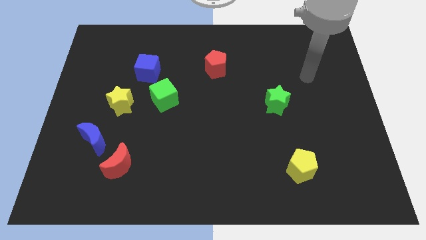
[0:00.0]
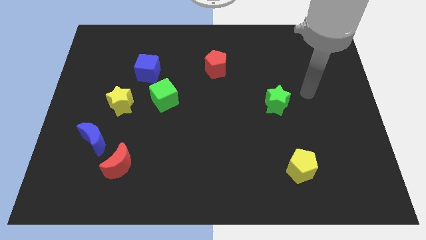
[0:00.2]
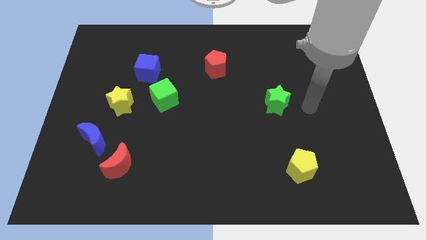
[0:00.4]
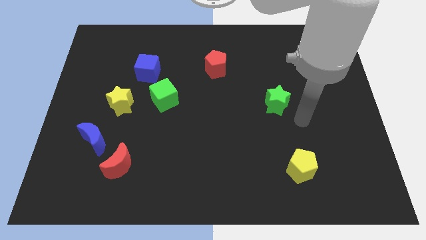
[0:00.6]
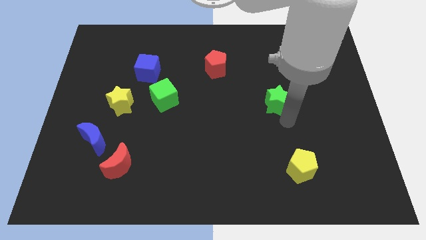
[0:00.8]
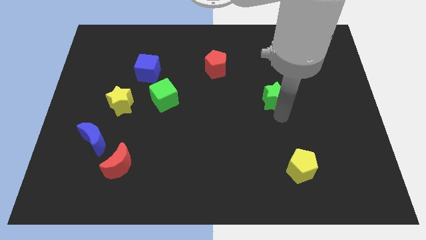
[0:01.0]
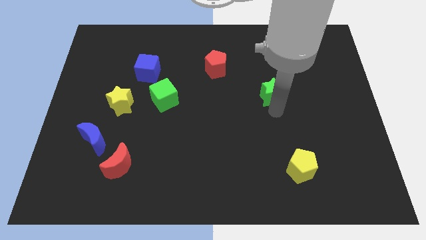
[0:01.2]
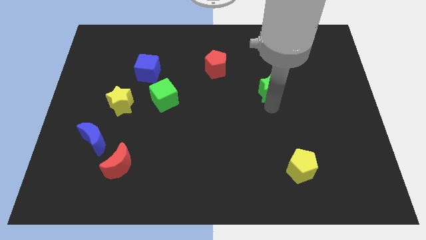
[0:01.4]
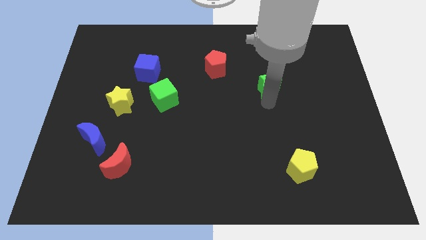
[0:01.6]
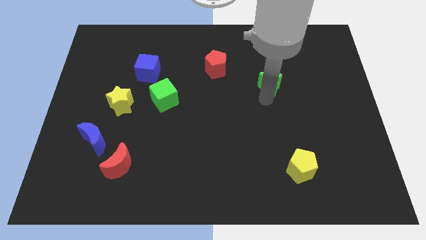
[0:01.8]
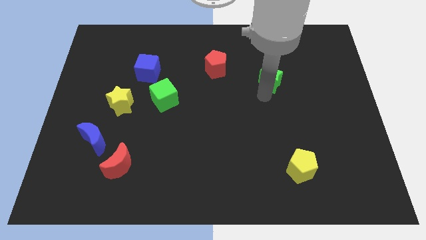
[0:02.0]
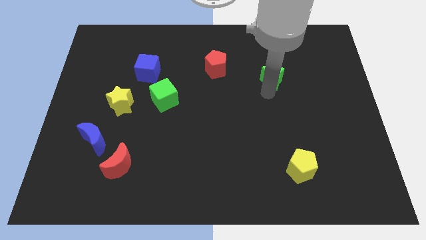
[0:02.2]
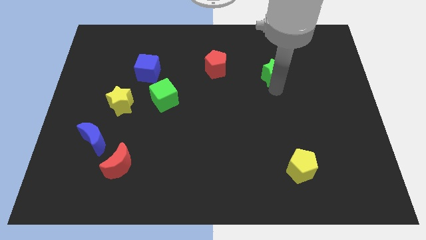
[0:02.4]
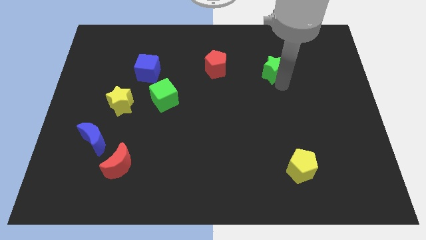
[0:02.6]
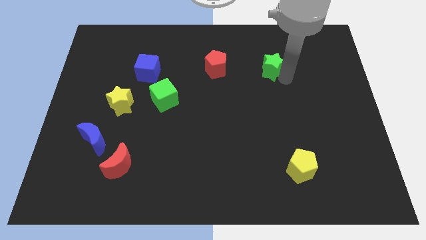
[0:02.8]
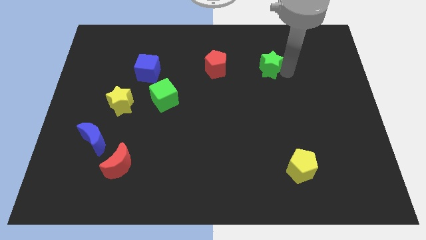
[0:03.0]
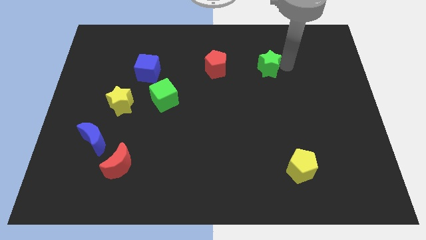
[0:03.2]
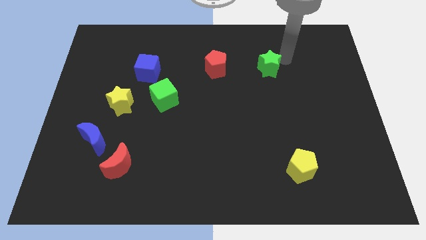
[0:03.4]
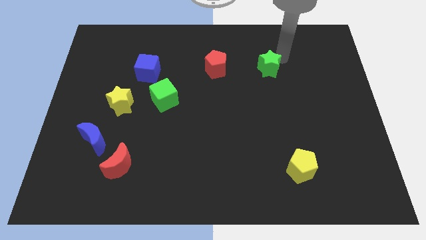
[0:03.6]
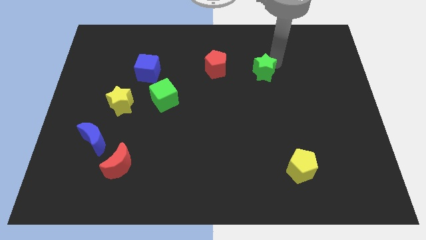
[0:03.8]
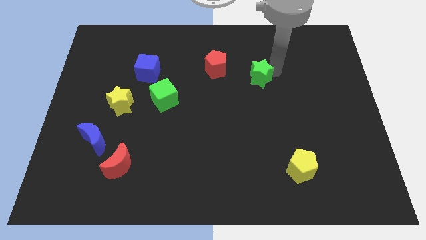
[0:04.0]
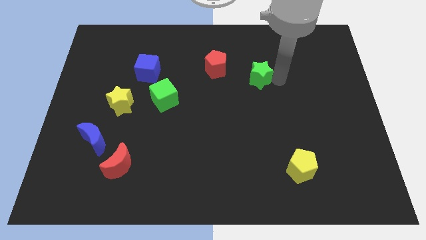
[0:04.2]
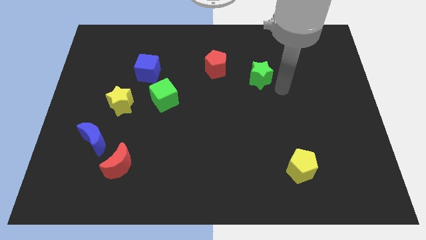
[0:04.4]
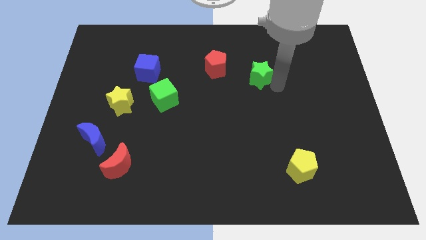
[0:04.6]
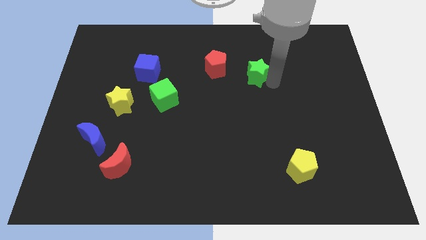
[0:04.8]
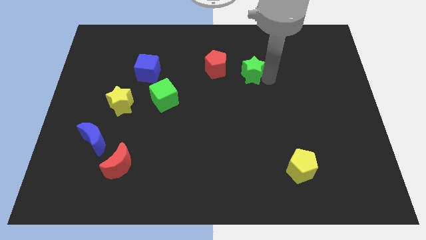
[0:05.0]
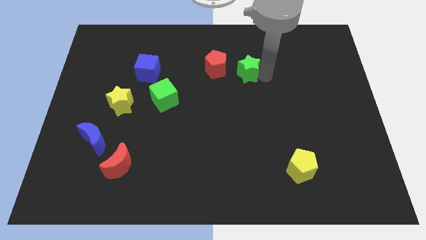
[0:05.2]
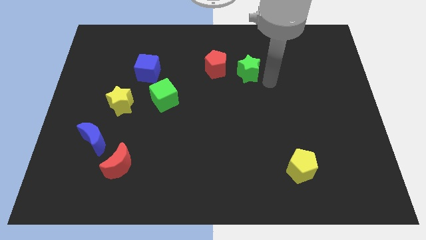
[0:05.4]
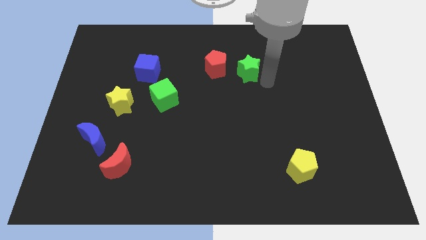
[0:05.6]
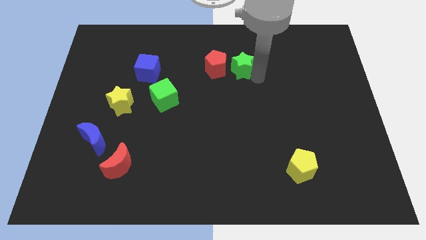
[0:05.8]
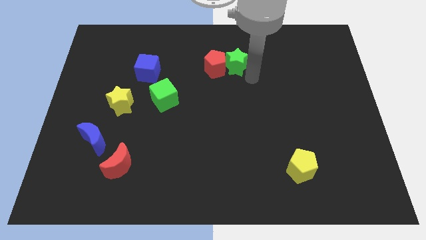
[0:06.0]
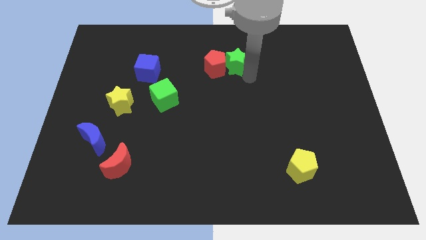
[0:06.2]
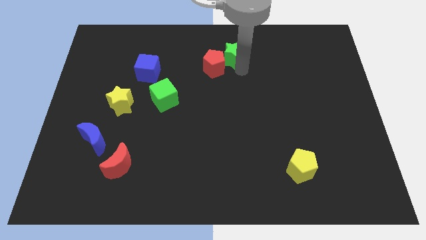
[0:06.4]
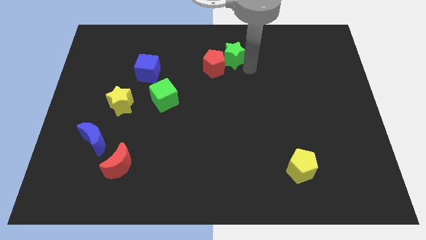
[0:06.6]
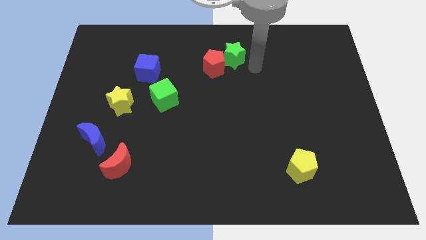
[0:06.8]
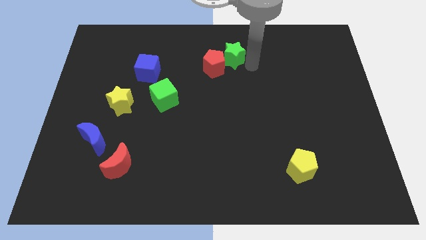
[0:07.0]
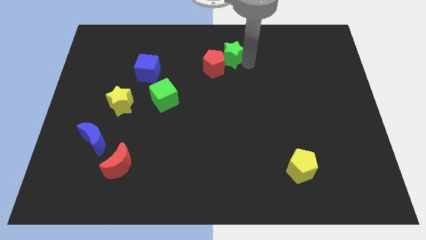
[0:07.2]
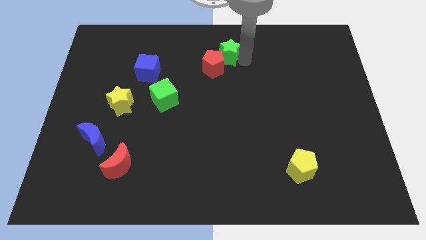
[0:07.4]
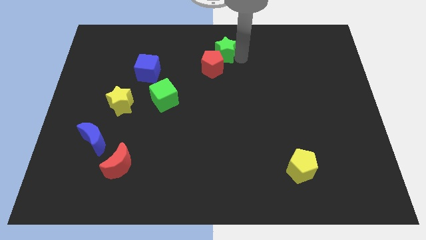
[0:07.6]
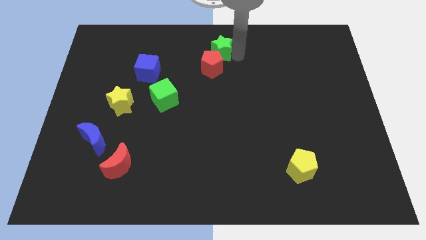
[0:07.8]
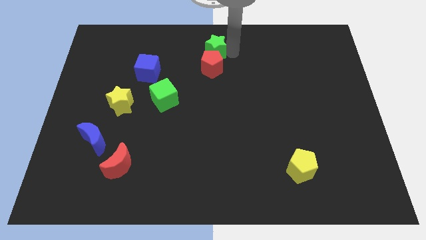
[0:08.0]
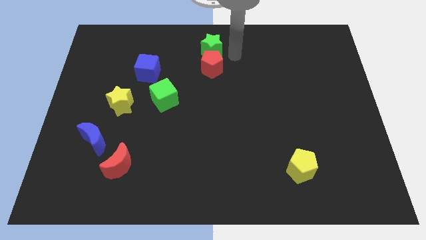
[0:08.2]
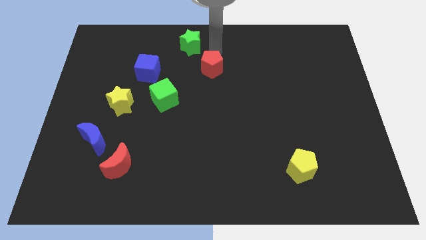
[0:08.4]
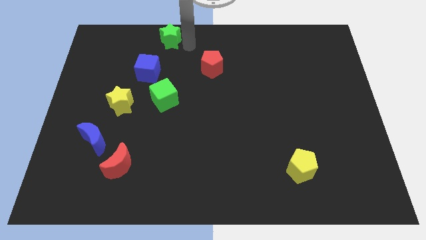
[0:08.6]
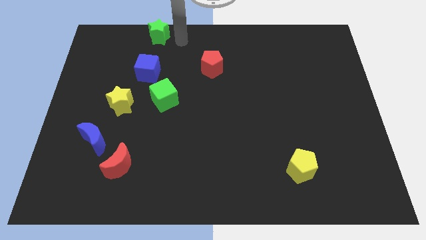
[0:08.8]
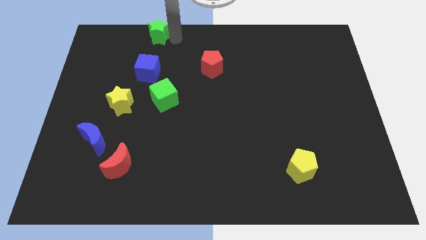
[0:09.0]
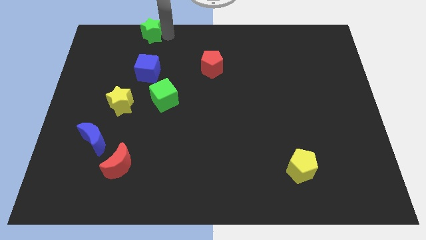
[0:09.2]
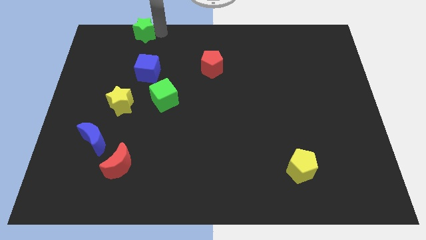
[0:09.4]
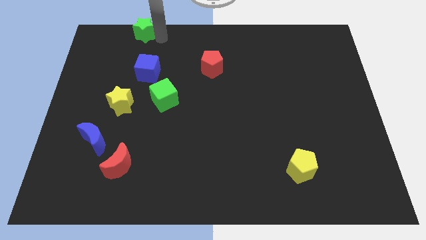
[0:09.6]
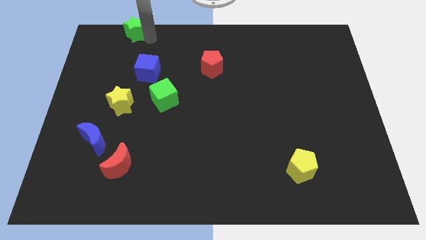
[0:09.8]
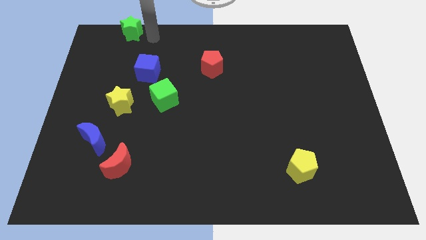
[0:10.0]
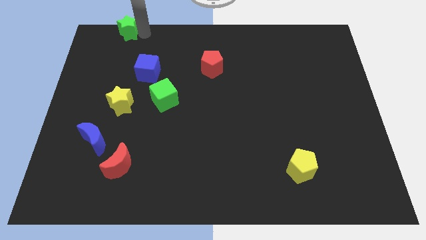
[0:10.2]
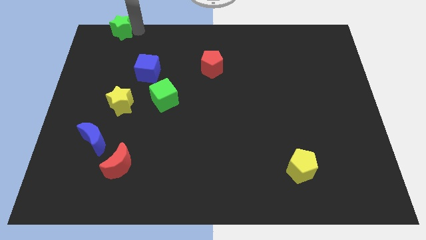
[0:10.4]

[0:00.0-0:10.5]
move the green star to the top left

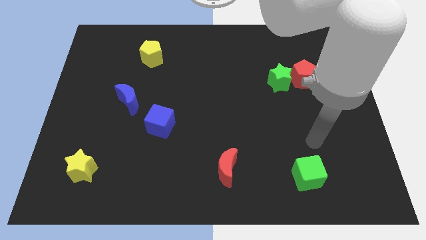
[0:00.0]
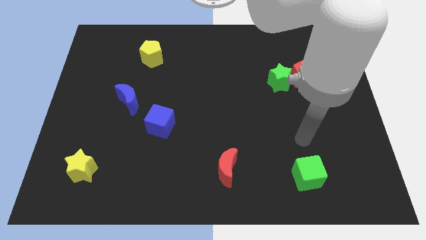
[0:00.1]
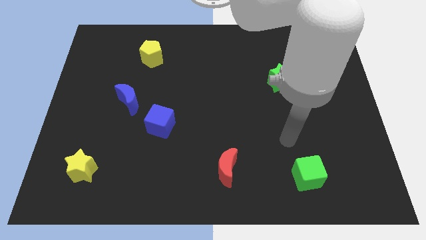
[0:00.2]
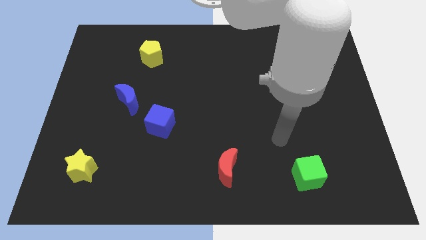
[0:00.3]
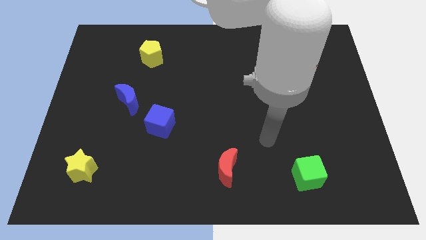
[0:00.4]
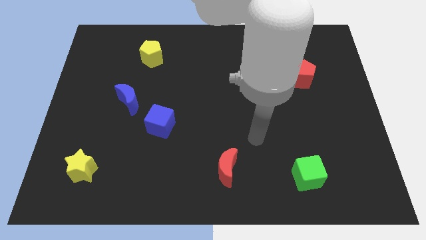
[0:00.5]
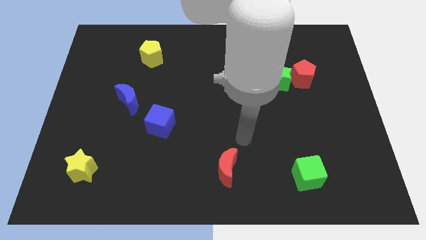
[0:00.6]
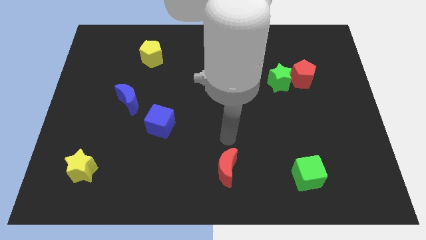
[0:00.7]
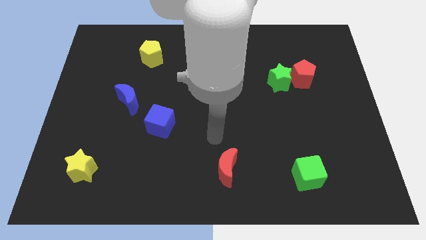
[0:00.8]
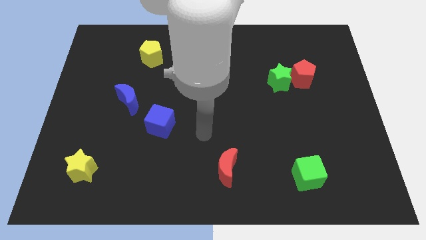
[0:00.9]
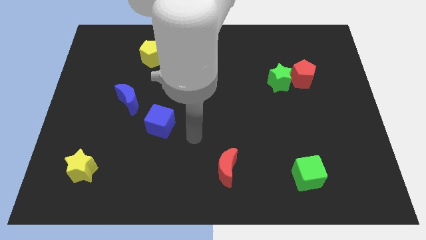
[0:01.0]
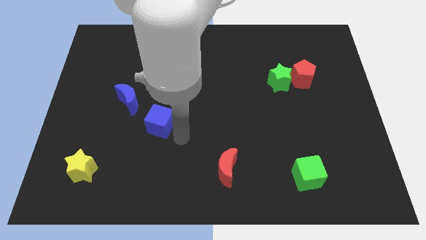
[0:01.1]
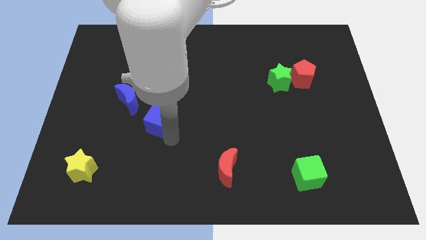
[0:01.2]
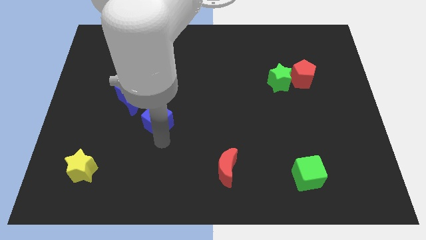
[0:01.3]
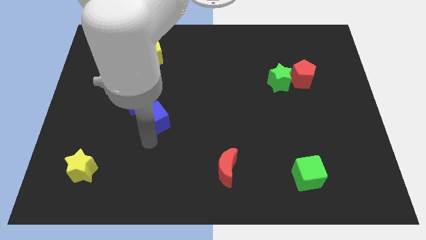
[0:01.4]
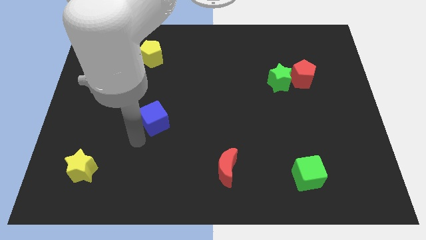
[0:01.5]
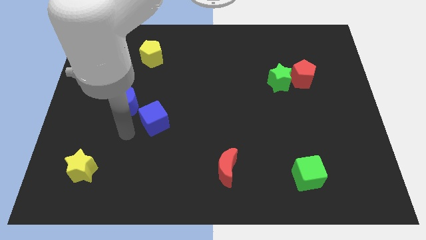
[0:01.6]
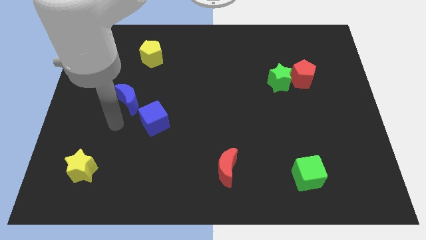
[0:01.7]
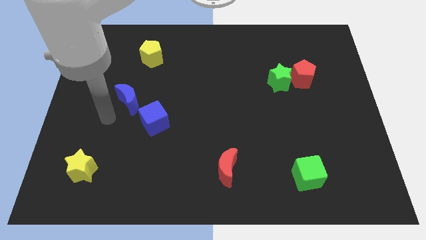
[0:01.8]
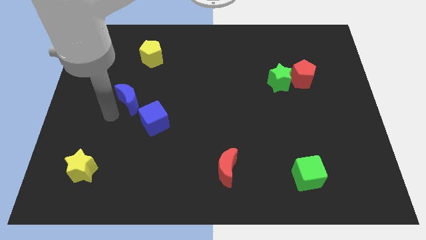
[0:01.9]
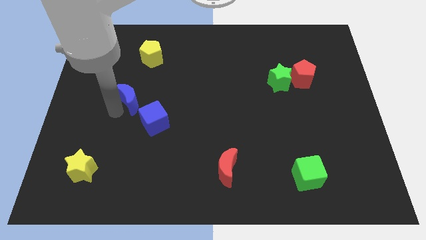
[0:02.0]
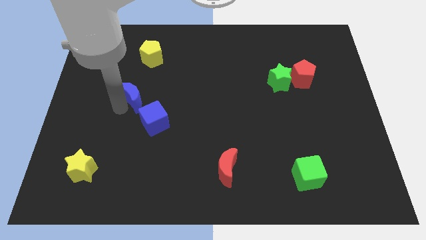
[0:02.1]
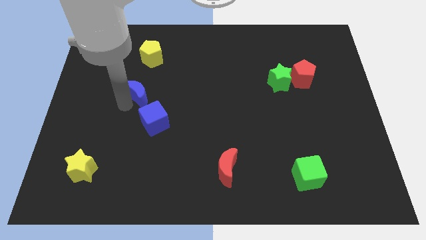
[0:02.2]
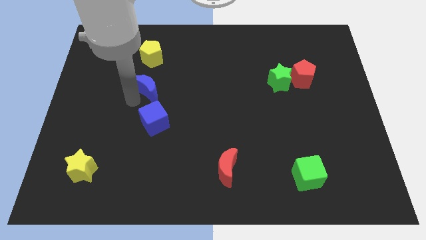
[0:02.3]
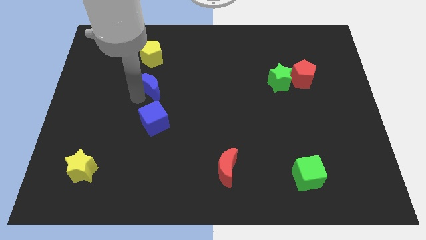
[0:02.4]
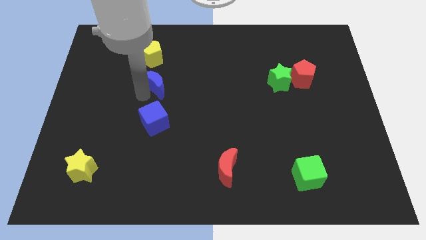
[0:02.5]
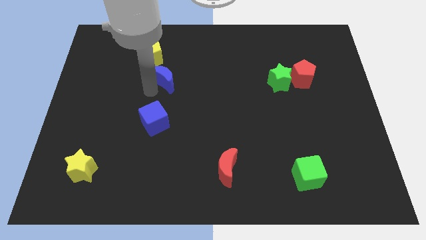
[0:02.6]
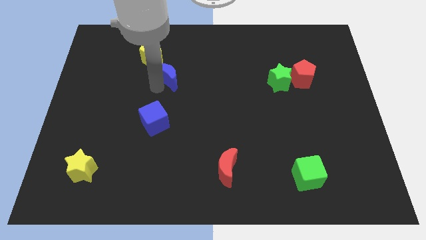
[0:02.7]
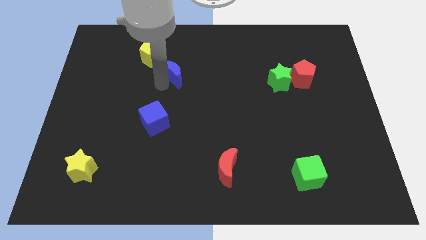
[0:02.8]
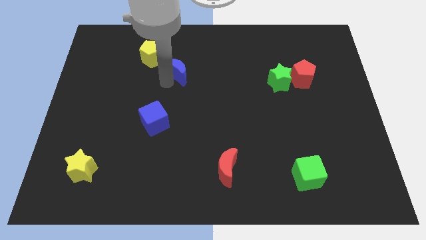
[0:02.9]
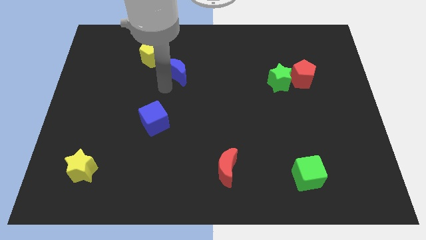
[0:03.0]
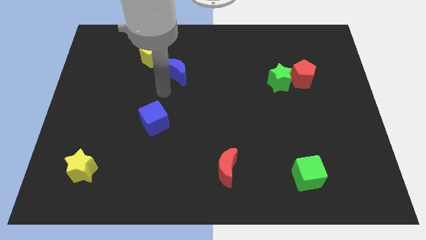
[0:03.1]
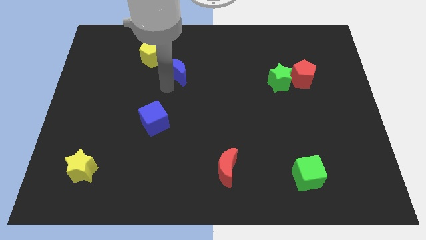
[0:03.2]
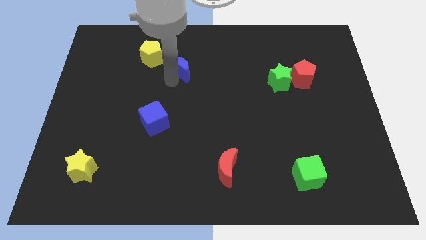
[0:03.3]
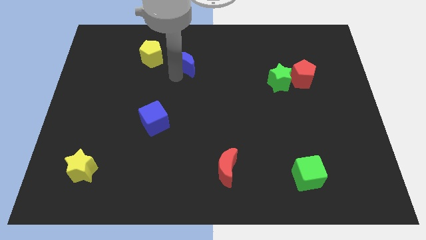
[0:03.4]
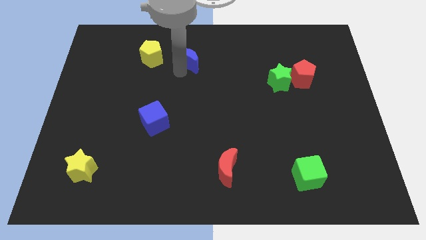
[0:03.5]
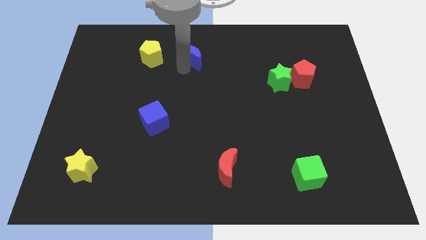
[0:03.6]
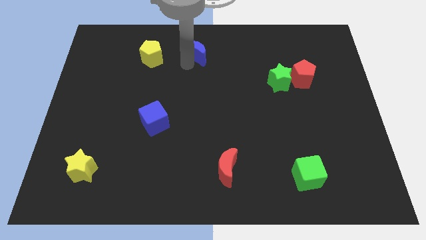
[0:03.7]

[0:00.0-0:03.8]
put the blue moon to the top side
